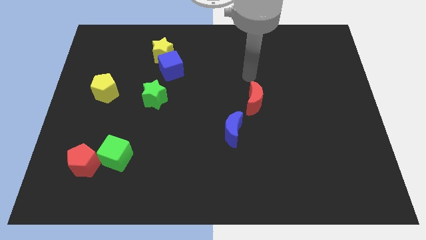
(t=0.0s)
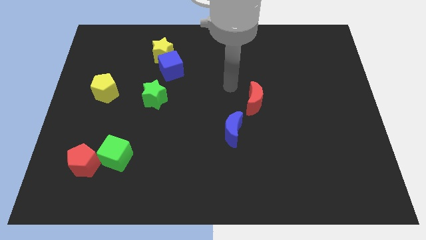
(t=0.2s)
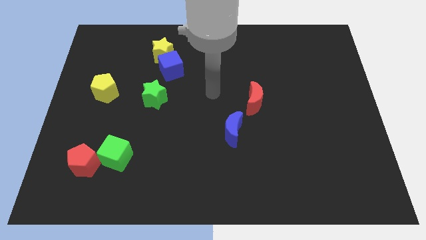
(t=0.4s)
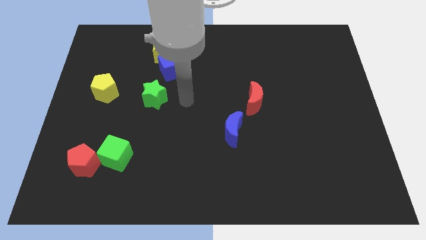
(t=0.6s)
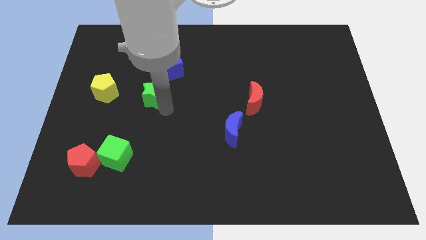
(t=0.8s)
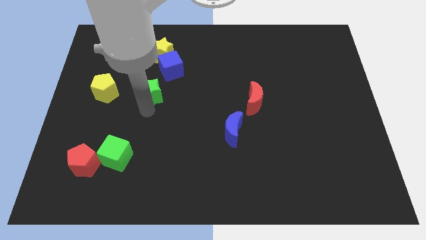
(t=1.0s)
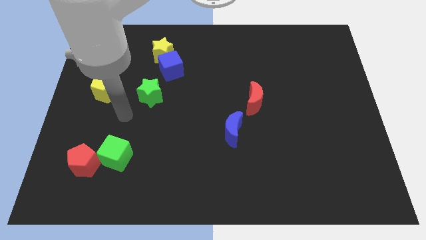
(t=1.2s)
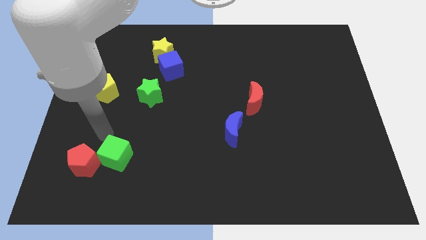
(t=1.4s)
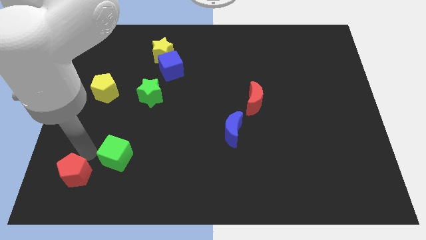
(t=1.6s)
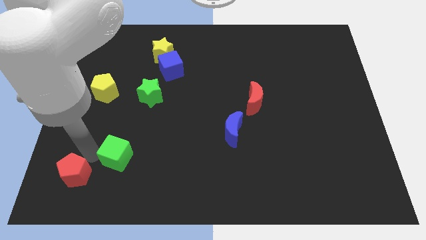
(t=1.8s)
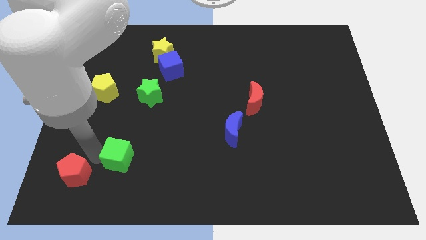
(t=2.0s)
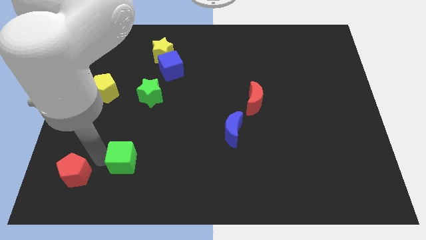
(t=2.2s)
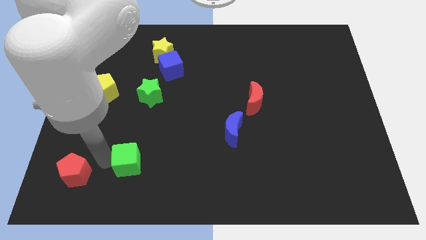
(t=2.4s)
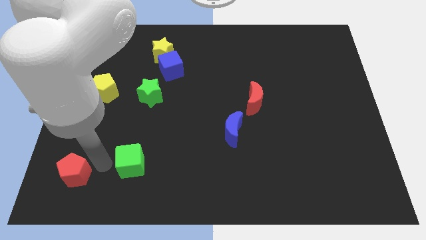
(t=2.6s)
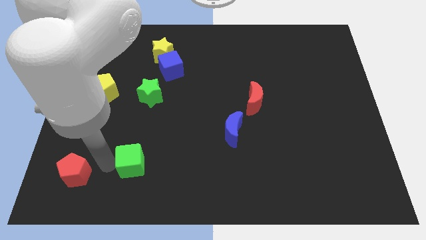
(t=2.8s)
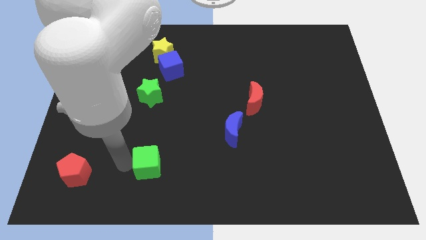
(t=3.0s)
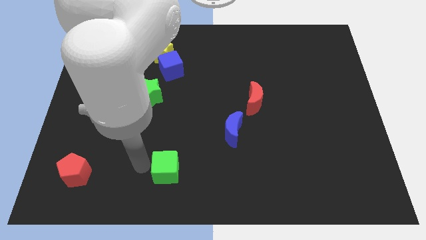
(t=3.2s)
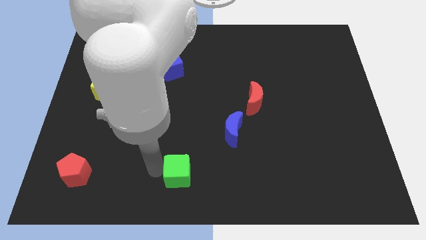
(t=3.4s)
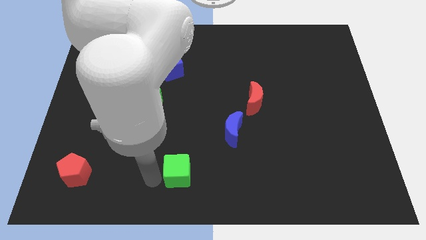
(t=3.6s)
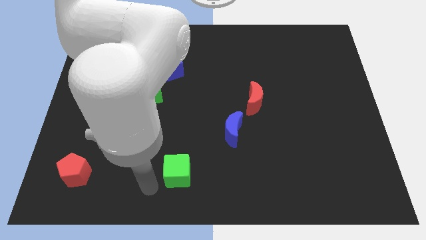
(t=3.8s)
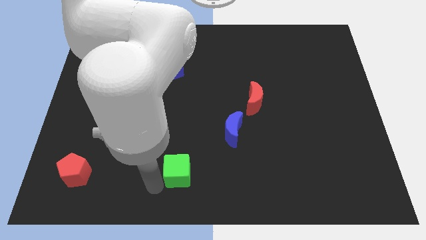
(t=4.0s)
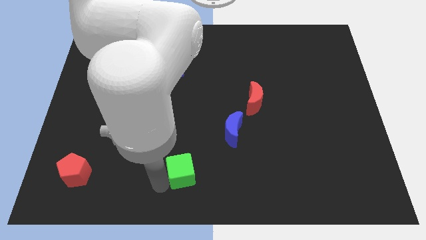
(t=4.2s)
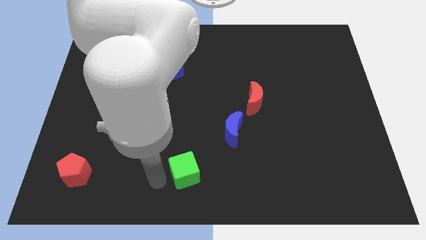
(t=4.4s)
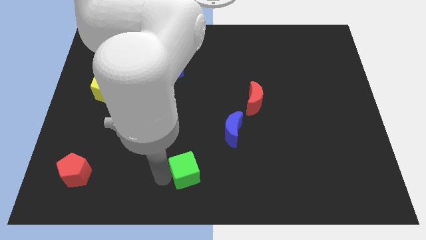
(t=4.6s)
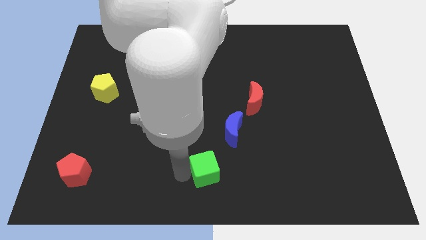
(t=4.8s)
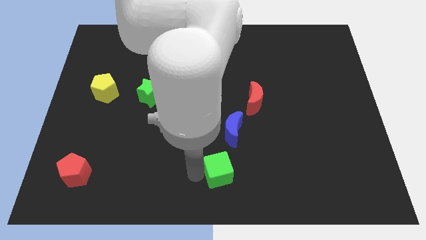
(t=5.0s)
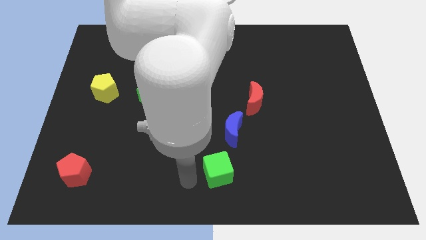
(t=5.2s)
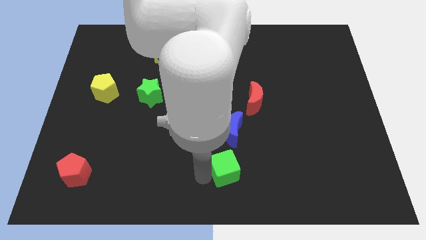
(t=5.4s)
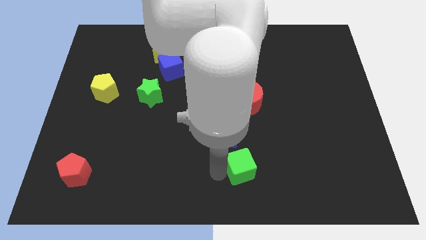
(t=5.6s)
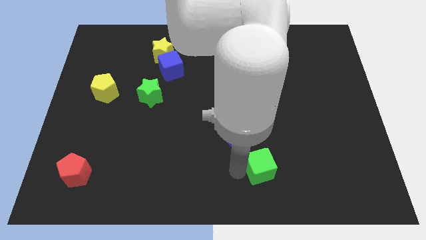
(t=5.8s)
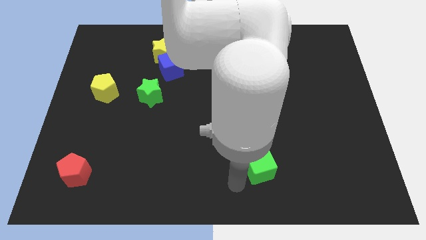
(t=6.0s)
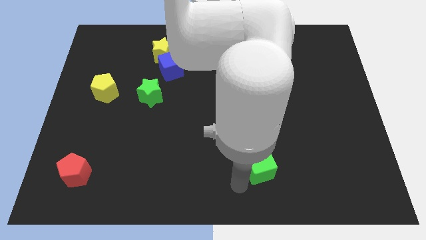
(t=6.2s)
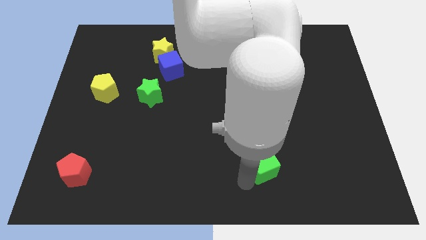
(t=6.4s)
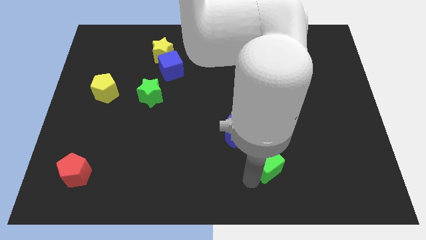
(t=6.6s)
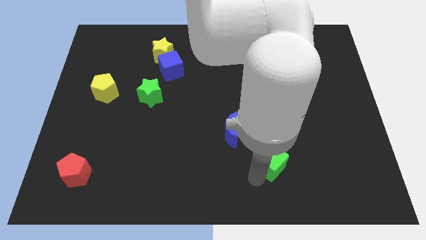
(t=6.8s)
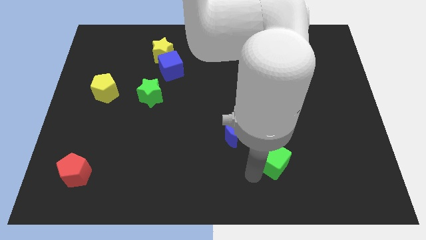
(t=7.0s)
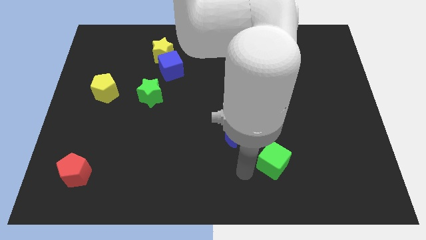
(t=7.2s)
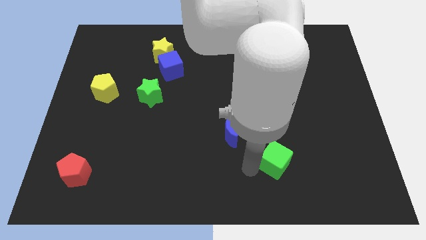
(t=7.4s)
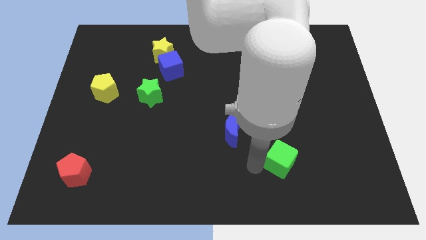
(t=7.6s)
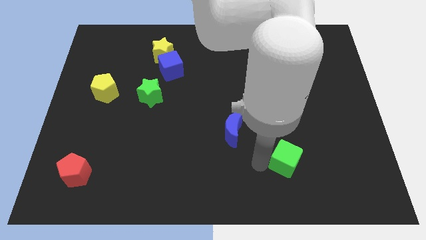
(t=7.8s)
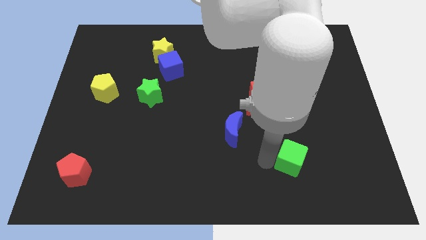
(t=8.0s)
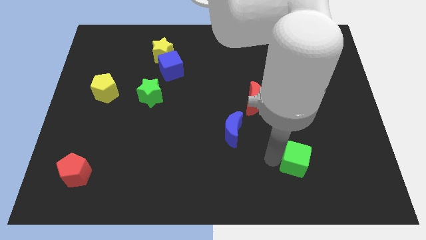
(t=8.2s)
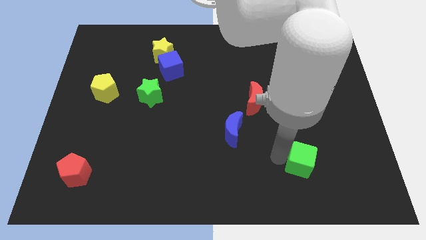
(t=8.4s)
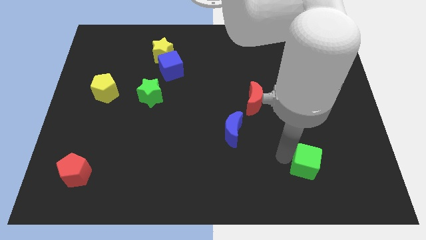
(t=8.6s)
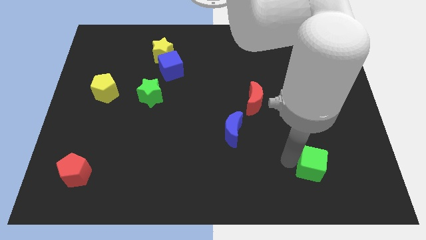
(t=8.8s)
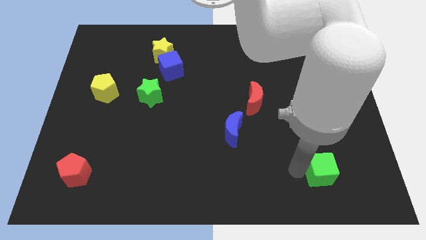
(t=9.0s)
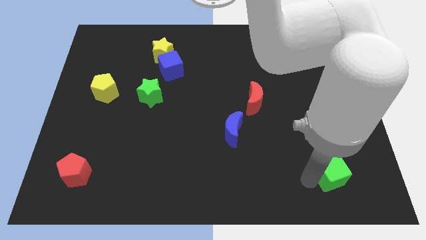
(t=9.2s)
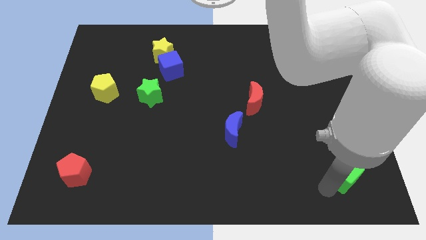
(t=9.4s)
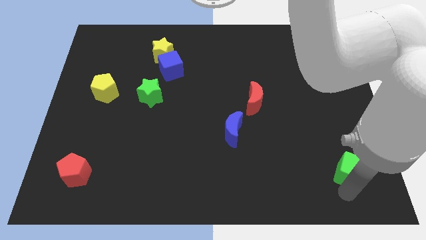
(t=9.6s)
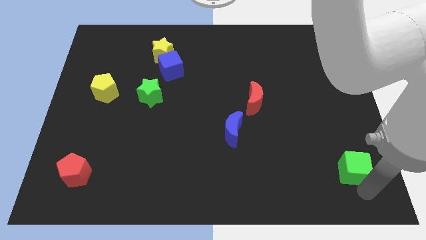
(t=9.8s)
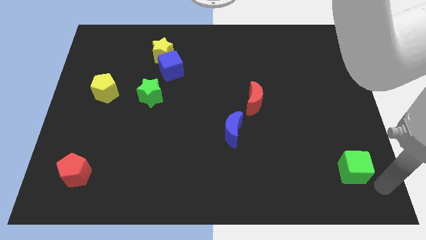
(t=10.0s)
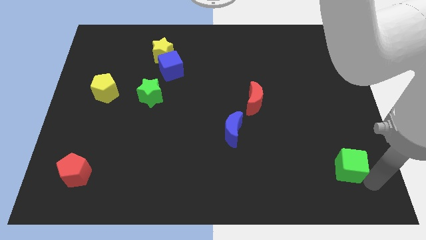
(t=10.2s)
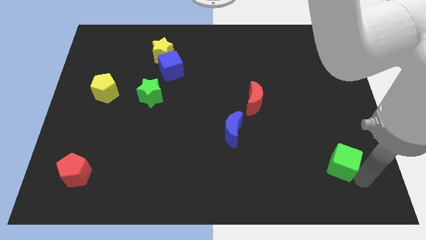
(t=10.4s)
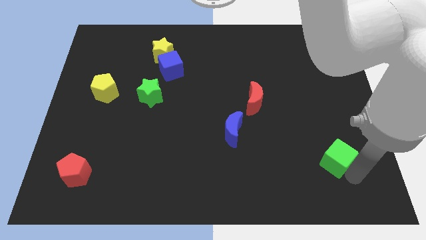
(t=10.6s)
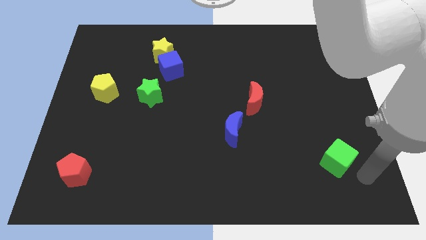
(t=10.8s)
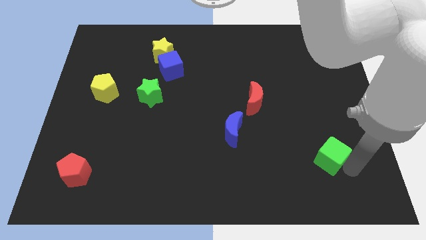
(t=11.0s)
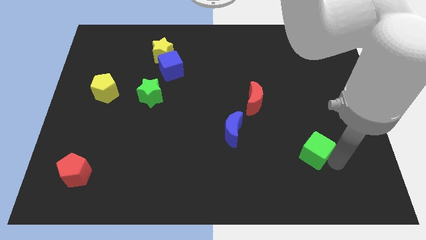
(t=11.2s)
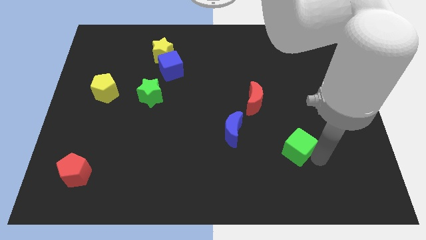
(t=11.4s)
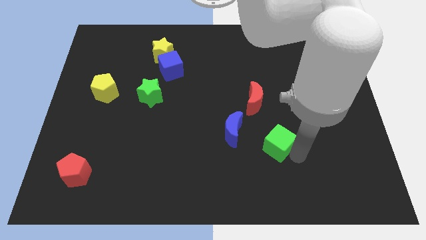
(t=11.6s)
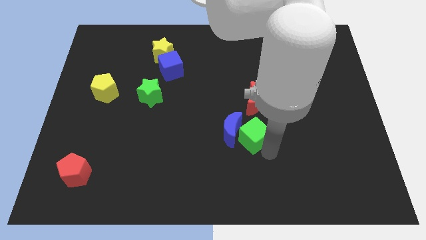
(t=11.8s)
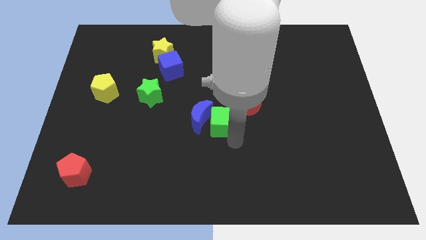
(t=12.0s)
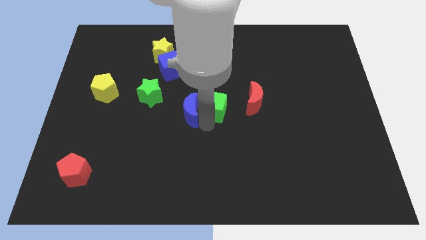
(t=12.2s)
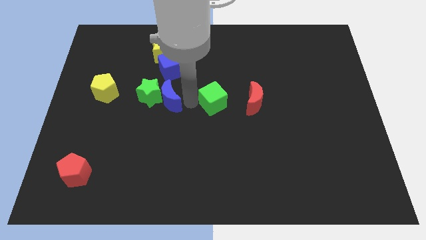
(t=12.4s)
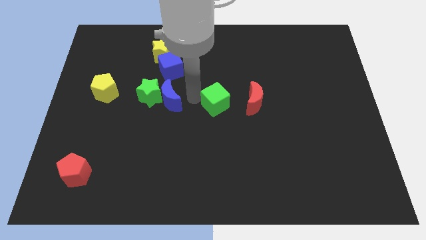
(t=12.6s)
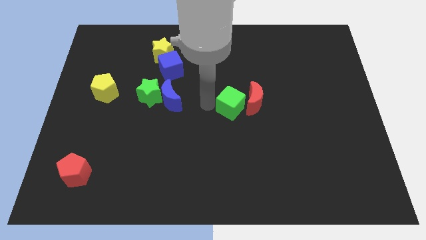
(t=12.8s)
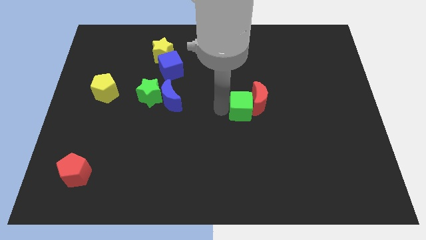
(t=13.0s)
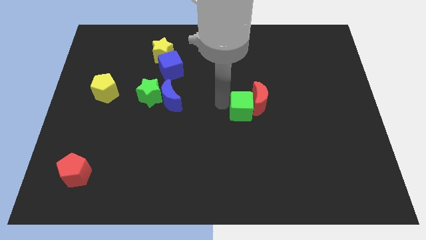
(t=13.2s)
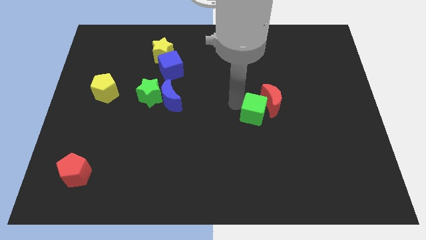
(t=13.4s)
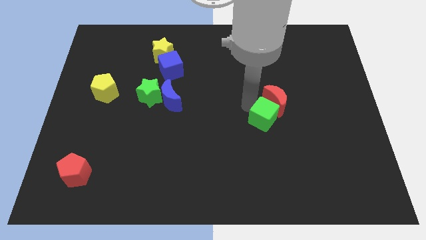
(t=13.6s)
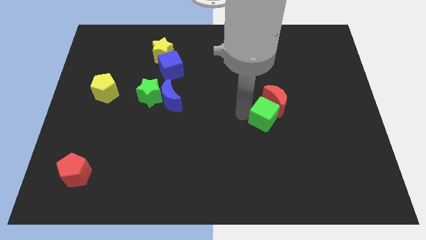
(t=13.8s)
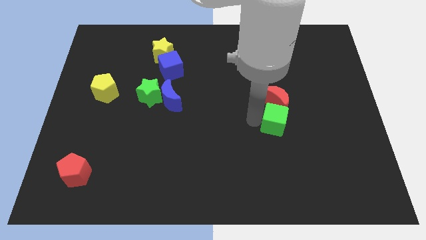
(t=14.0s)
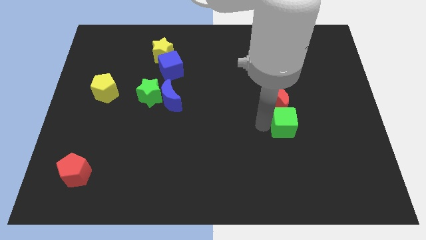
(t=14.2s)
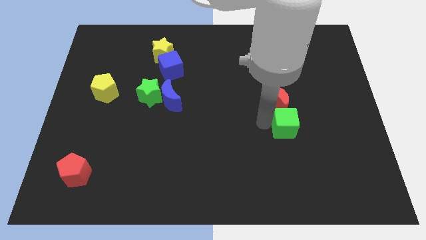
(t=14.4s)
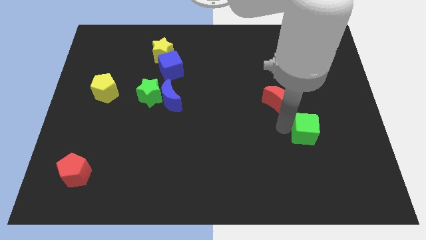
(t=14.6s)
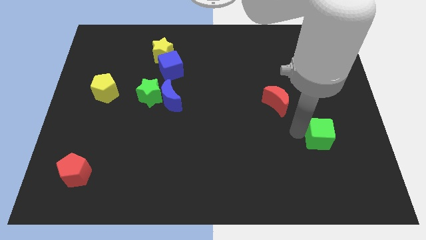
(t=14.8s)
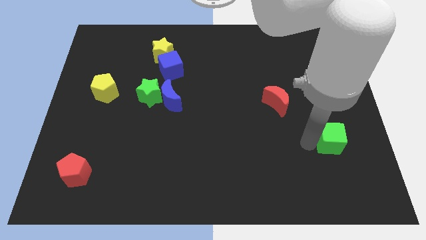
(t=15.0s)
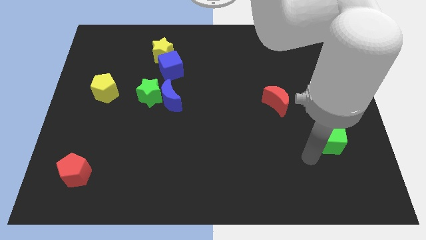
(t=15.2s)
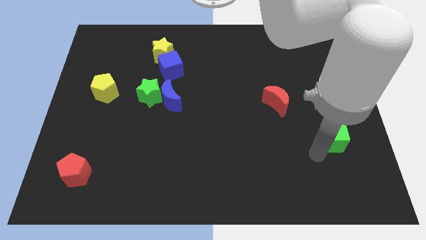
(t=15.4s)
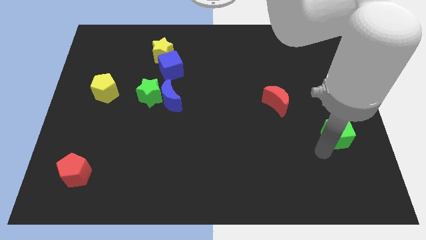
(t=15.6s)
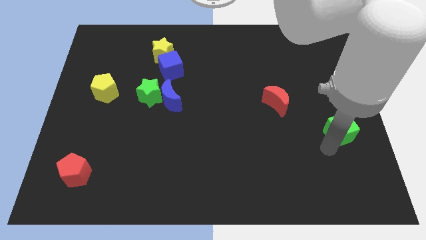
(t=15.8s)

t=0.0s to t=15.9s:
move the green cube to the right side of the board
